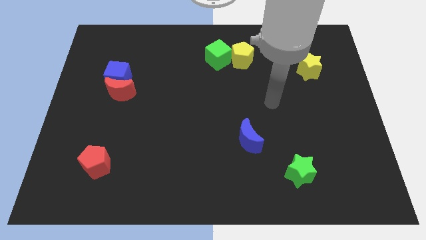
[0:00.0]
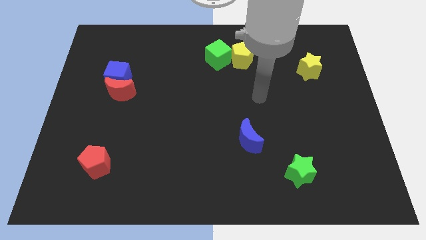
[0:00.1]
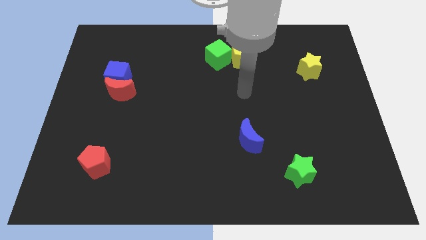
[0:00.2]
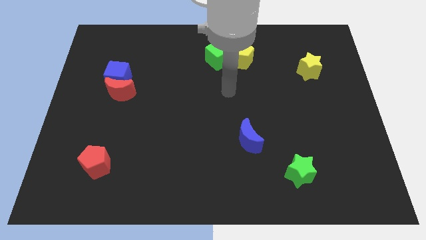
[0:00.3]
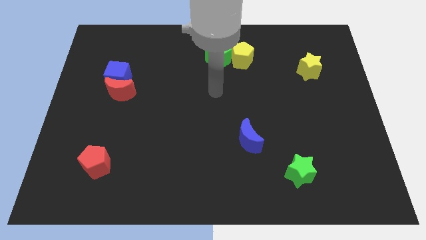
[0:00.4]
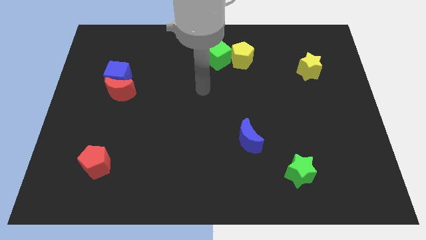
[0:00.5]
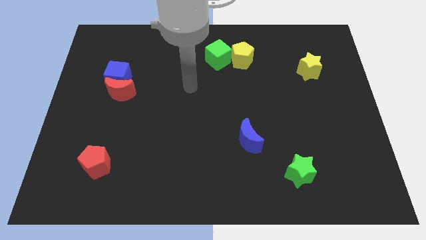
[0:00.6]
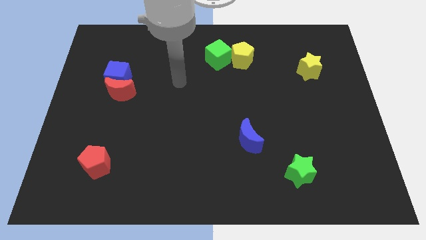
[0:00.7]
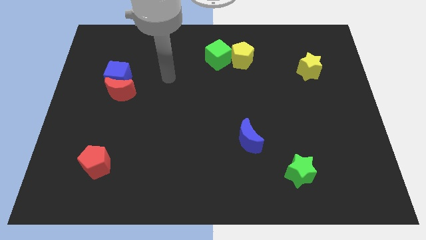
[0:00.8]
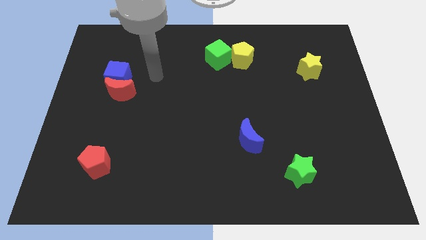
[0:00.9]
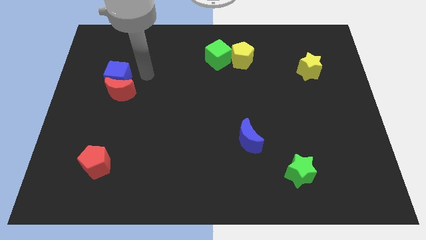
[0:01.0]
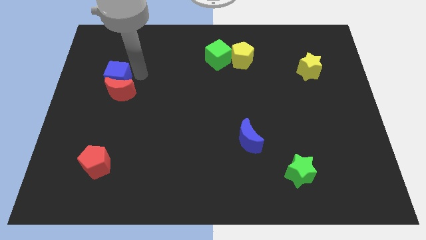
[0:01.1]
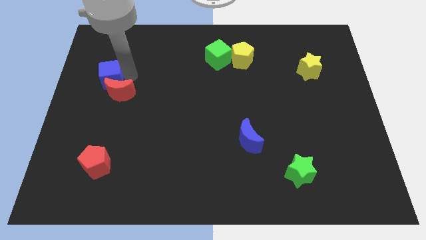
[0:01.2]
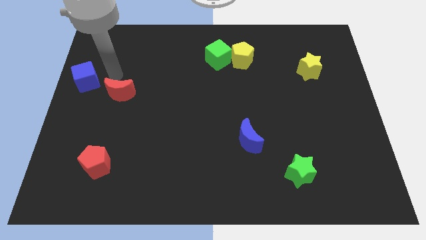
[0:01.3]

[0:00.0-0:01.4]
move the red moon away from the blue cube

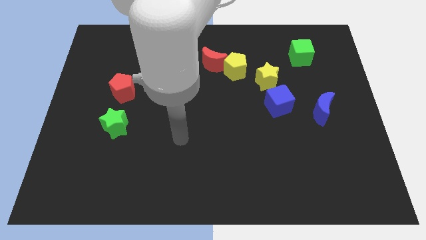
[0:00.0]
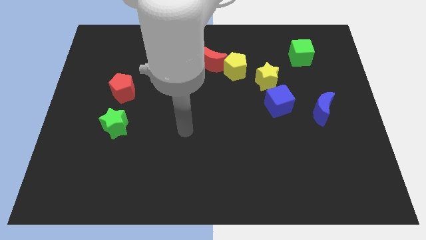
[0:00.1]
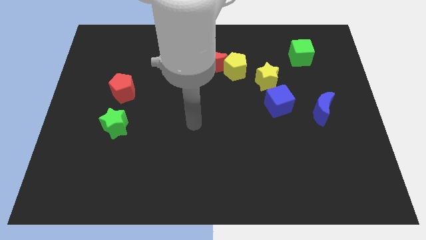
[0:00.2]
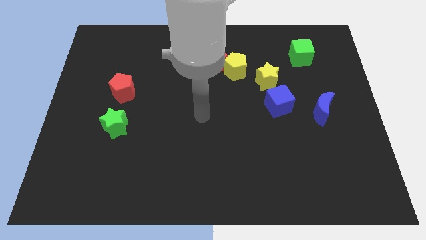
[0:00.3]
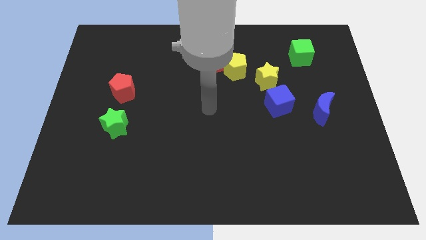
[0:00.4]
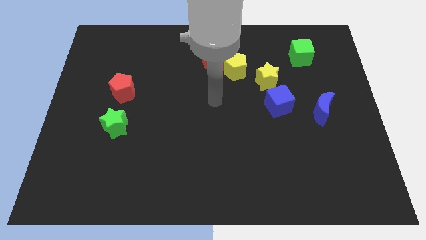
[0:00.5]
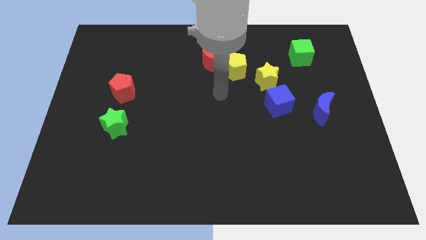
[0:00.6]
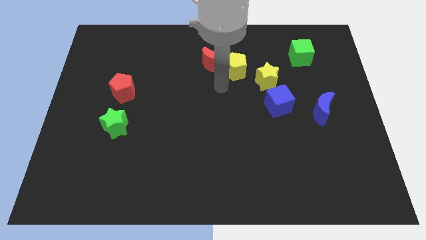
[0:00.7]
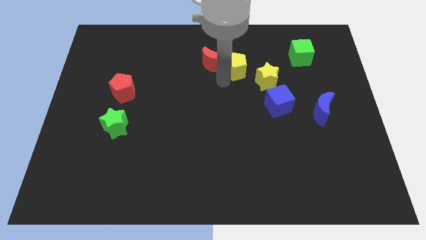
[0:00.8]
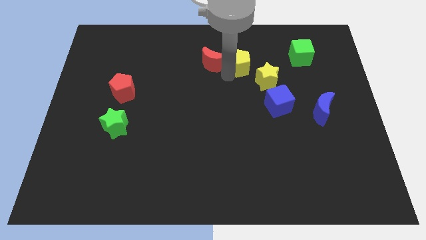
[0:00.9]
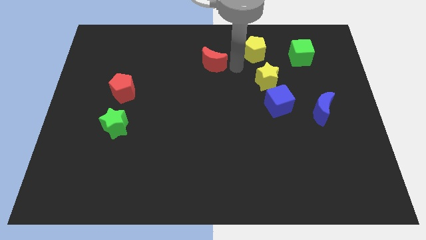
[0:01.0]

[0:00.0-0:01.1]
move the red moon away from the yellow pentagon

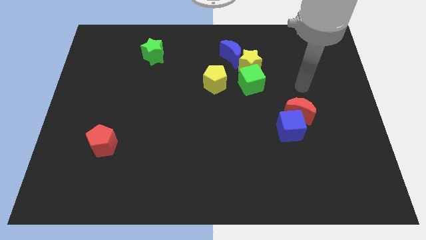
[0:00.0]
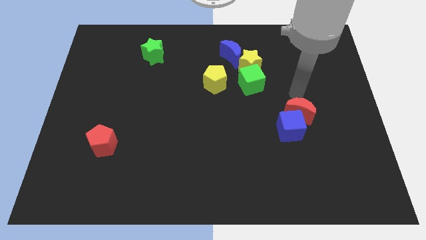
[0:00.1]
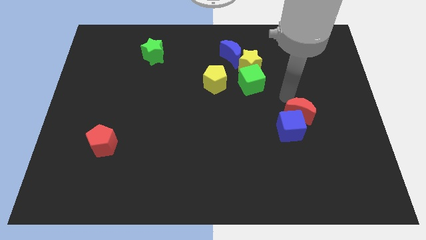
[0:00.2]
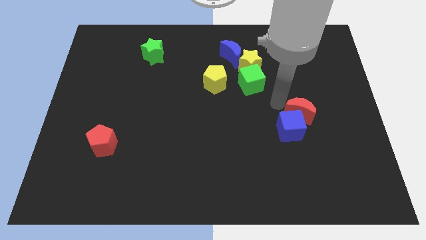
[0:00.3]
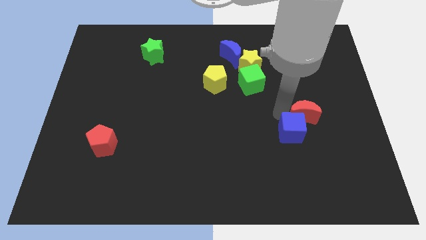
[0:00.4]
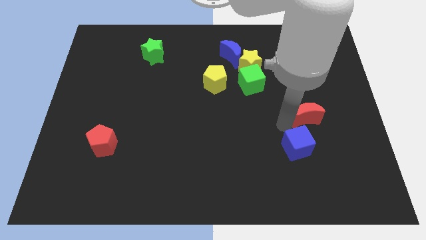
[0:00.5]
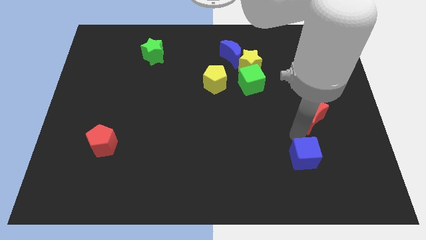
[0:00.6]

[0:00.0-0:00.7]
separate the red moon from the blue cube

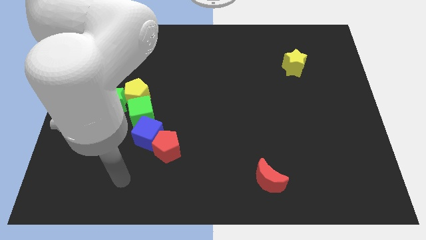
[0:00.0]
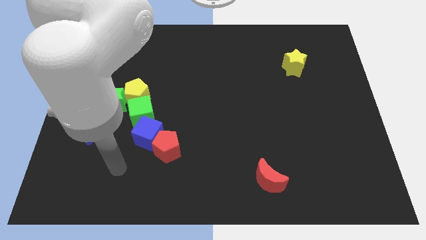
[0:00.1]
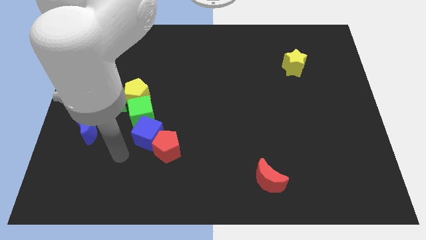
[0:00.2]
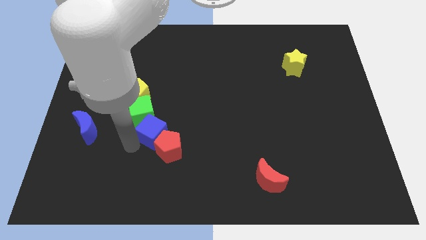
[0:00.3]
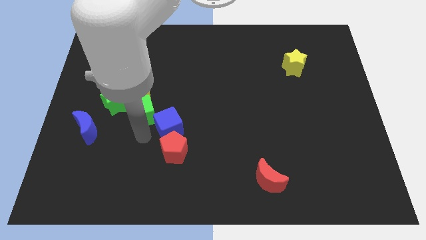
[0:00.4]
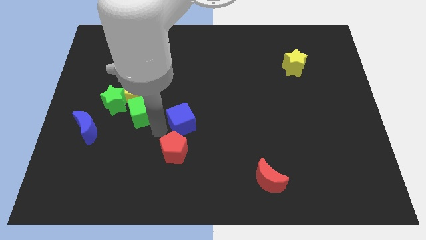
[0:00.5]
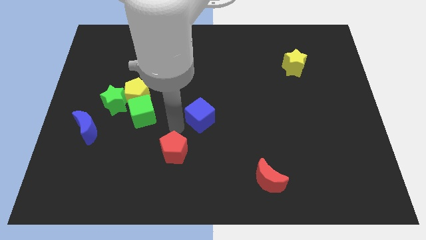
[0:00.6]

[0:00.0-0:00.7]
move the red pentagon away from the blue cube

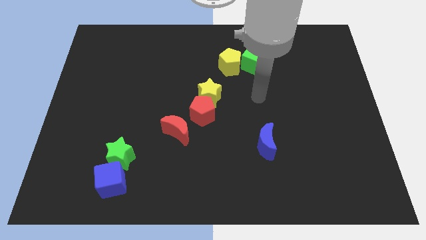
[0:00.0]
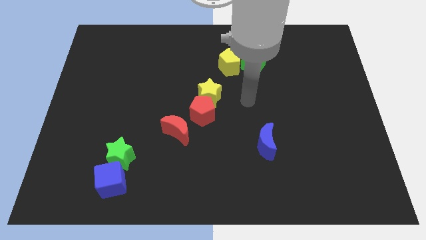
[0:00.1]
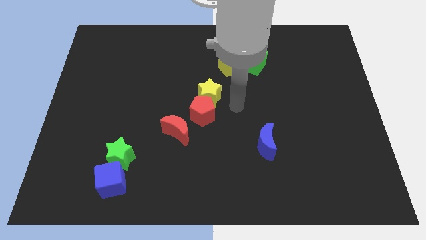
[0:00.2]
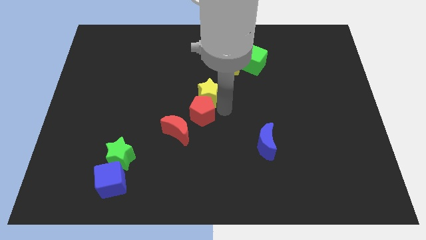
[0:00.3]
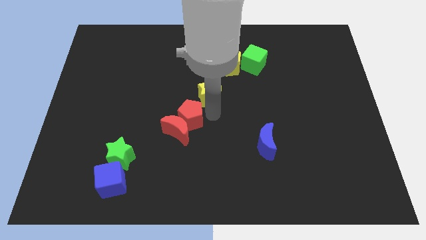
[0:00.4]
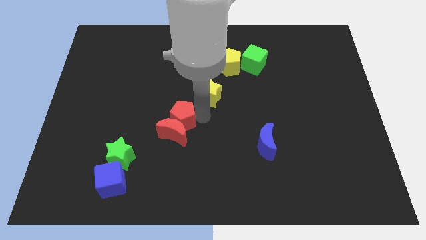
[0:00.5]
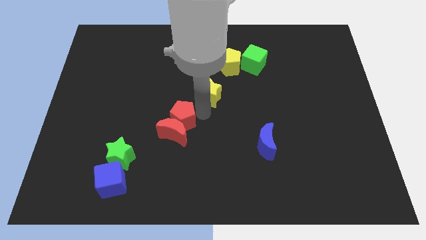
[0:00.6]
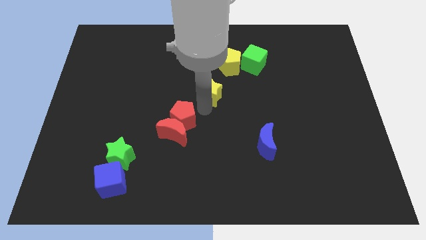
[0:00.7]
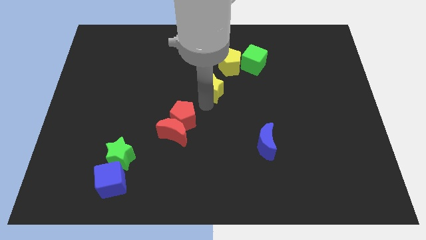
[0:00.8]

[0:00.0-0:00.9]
pull the yellow star apart from the red pentagon

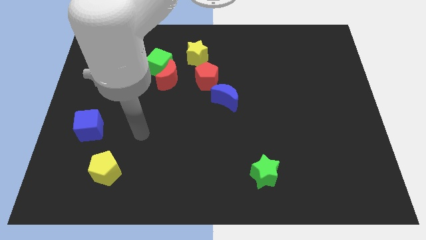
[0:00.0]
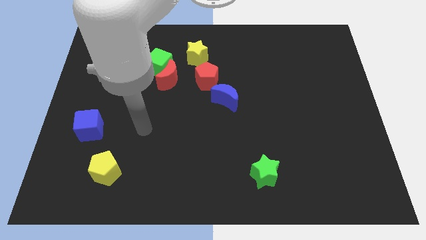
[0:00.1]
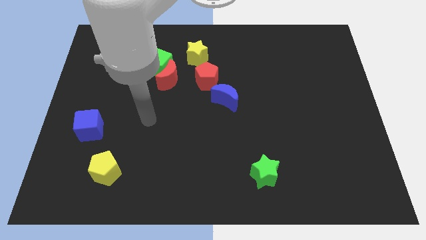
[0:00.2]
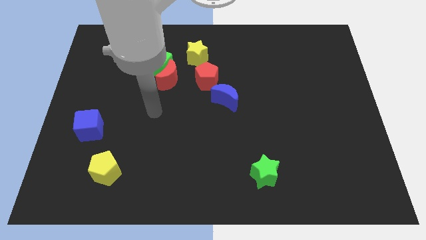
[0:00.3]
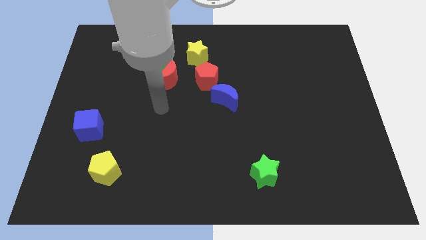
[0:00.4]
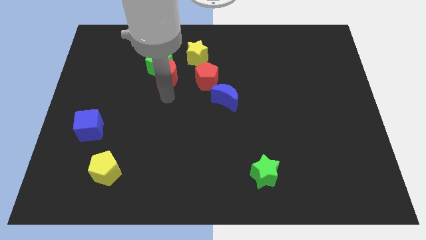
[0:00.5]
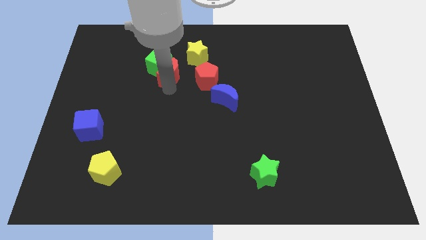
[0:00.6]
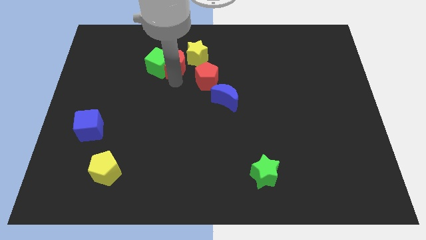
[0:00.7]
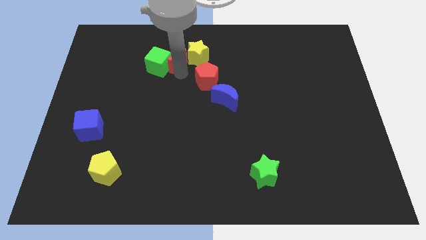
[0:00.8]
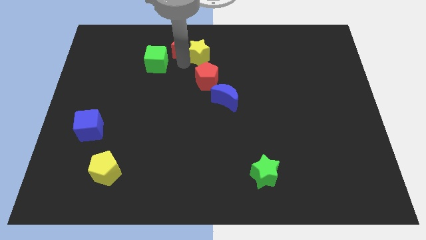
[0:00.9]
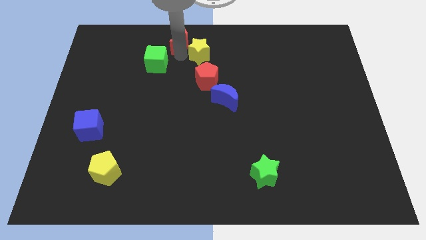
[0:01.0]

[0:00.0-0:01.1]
pull the green cube apart from the red moon and yellow star

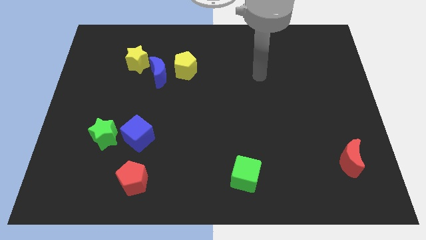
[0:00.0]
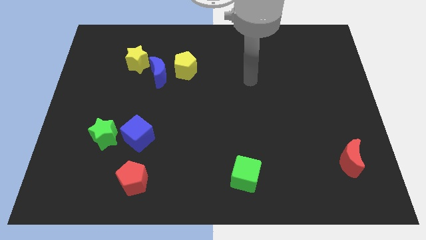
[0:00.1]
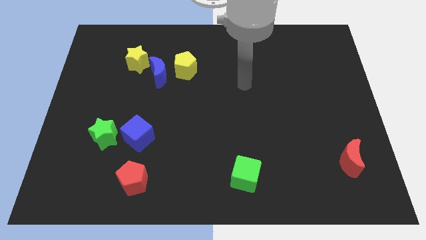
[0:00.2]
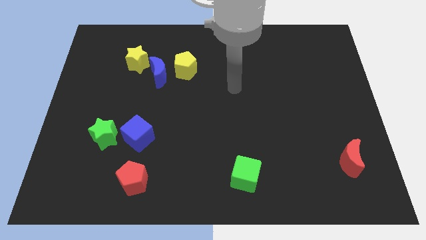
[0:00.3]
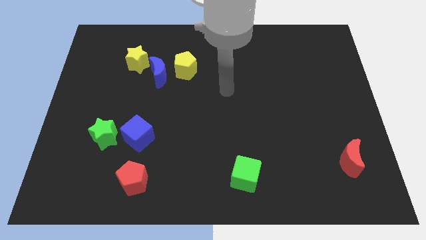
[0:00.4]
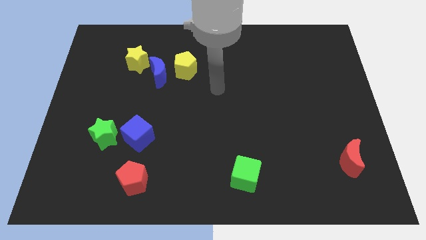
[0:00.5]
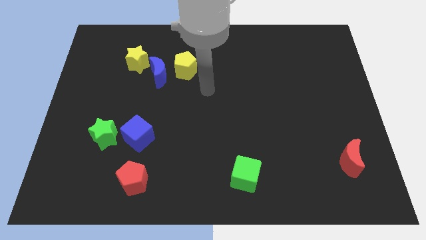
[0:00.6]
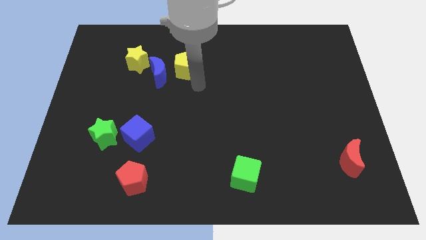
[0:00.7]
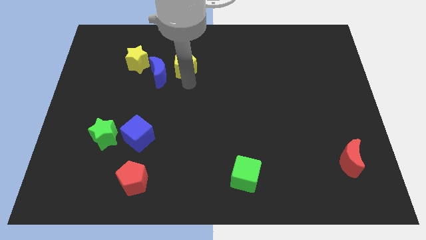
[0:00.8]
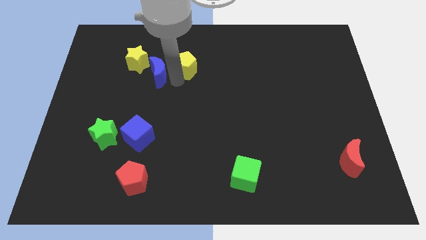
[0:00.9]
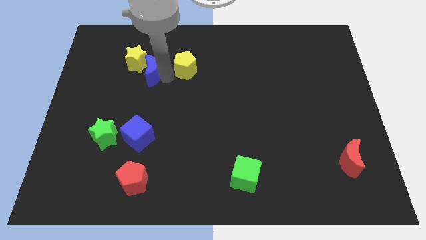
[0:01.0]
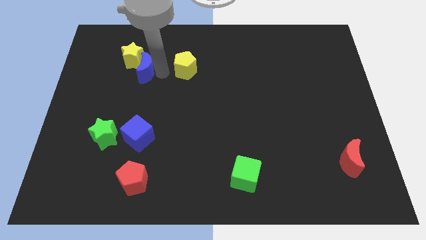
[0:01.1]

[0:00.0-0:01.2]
move the yellow pentagon away from the blue moon

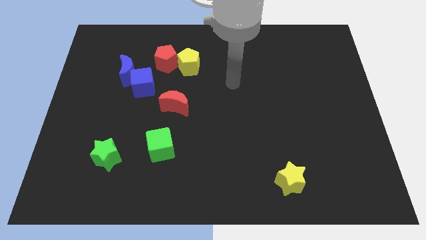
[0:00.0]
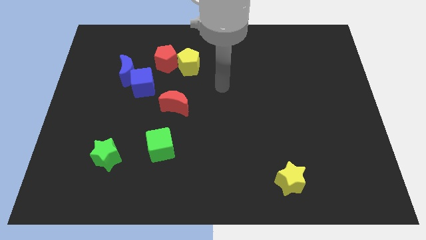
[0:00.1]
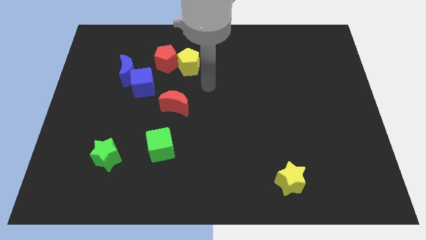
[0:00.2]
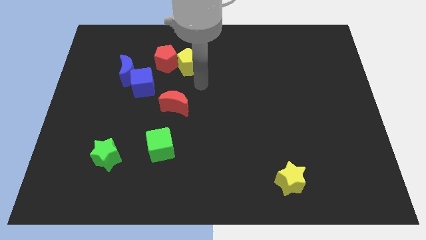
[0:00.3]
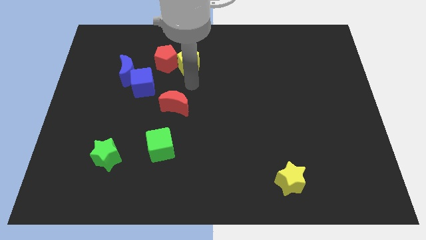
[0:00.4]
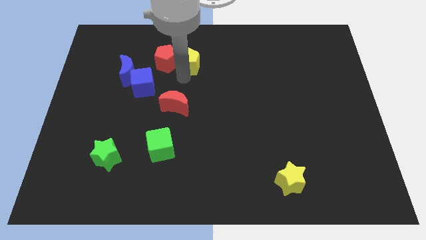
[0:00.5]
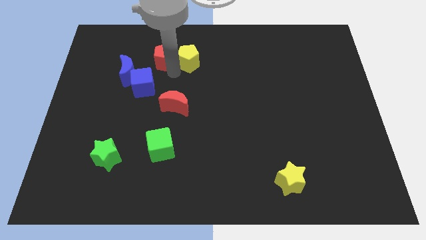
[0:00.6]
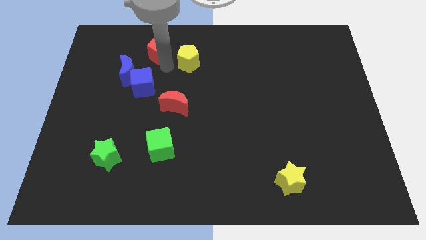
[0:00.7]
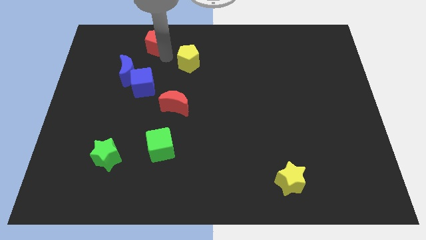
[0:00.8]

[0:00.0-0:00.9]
move the yellow pentagon away from the red pentagon

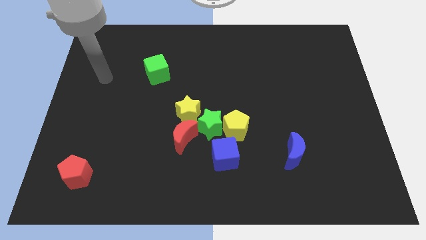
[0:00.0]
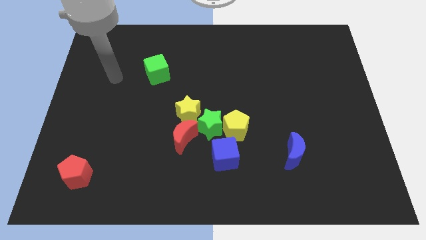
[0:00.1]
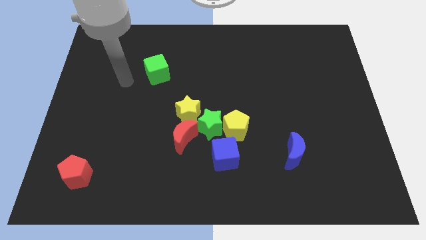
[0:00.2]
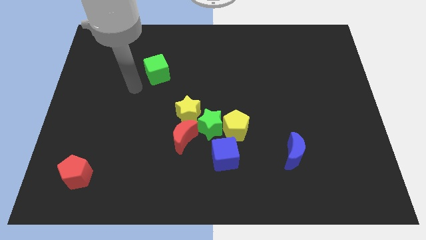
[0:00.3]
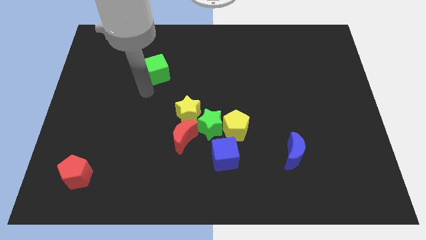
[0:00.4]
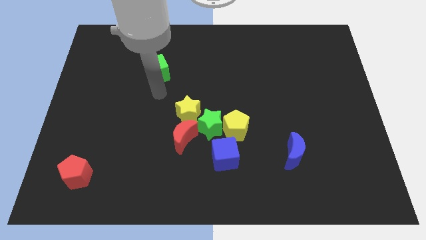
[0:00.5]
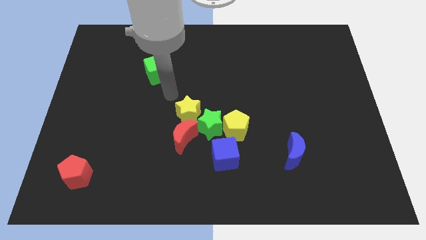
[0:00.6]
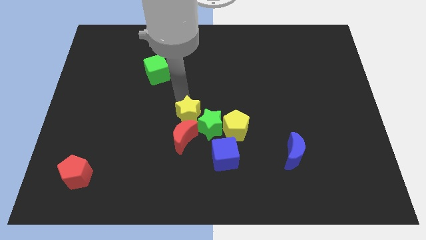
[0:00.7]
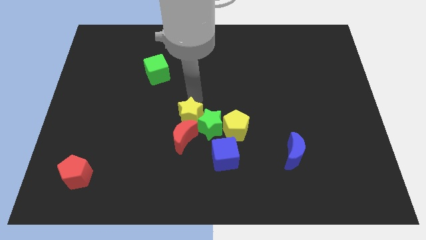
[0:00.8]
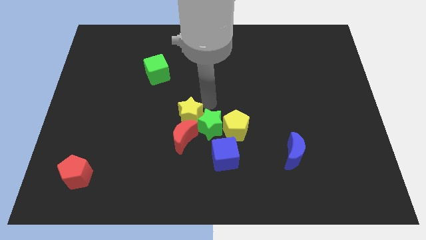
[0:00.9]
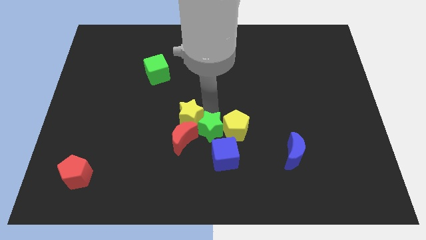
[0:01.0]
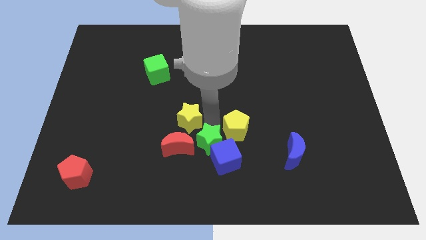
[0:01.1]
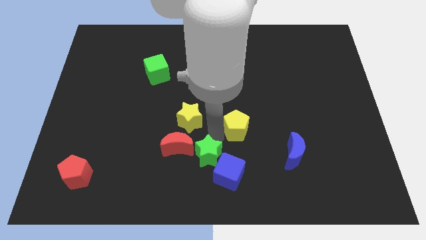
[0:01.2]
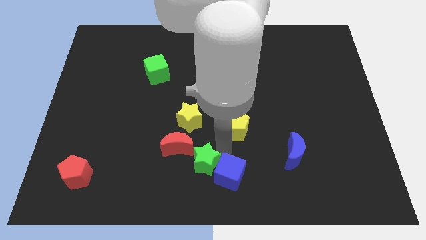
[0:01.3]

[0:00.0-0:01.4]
pull the yellow pentagon apart from the green star and blue cube
